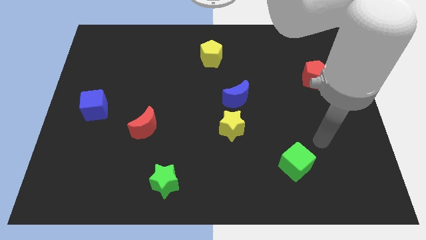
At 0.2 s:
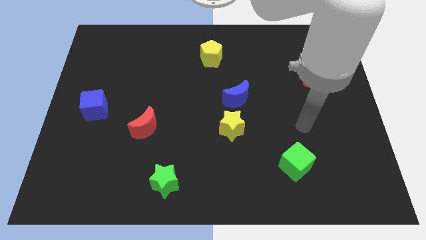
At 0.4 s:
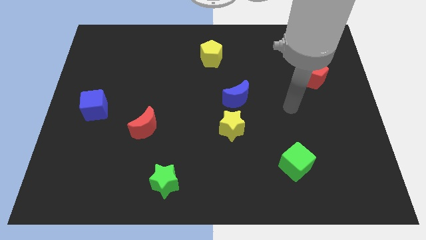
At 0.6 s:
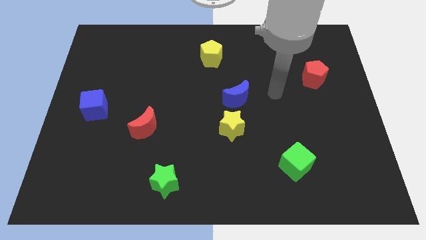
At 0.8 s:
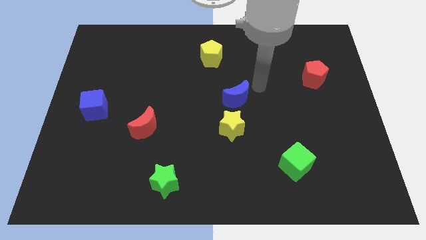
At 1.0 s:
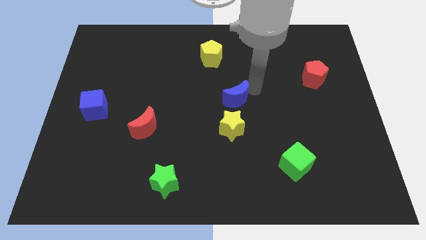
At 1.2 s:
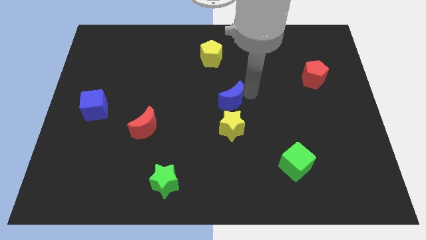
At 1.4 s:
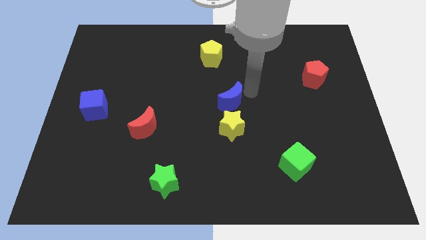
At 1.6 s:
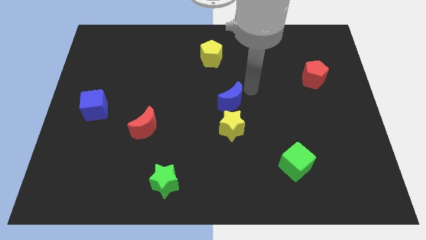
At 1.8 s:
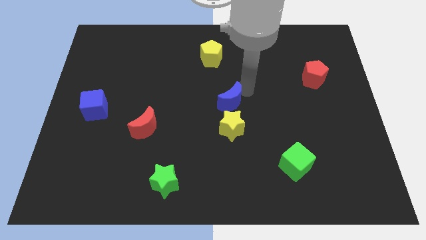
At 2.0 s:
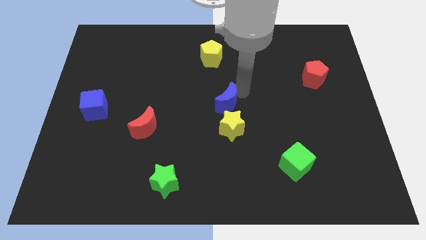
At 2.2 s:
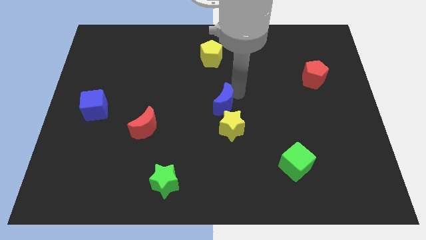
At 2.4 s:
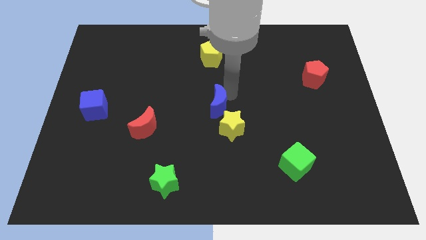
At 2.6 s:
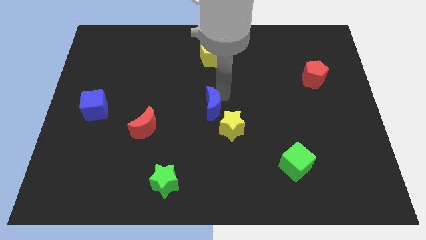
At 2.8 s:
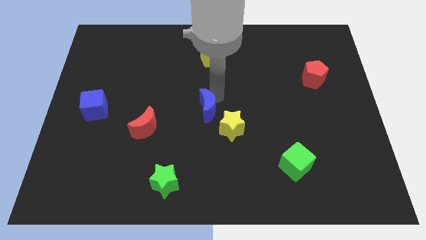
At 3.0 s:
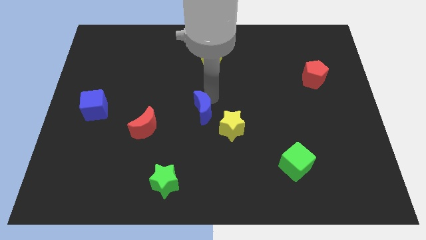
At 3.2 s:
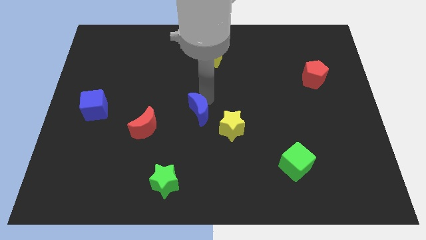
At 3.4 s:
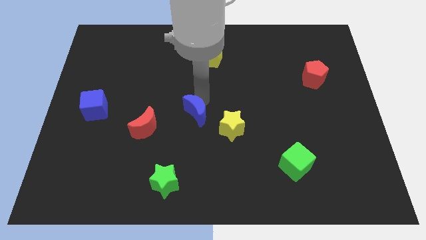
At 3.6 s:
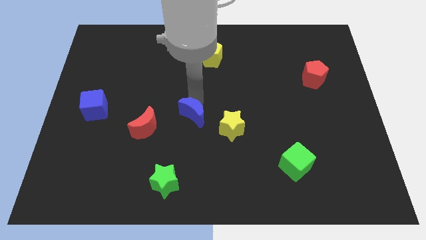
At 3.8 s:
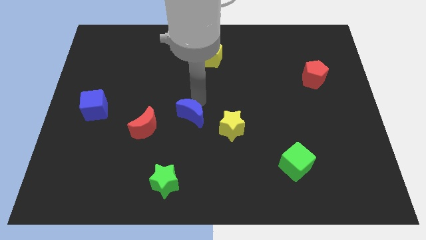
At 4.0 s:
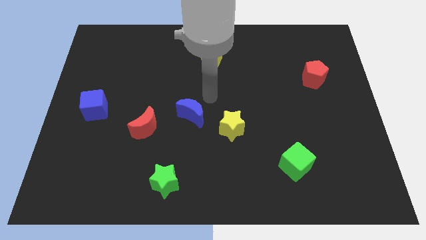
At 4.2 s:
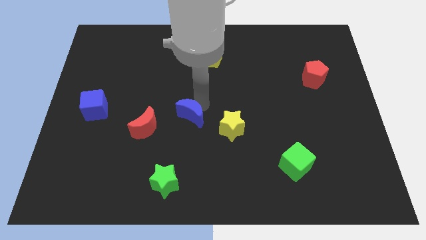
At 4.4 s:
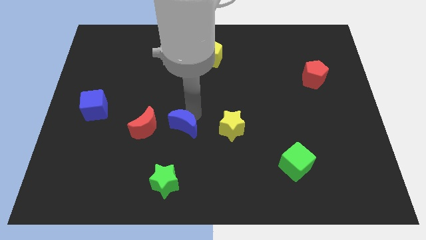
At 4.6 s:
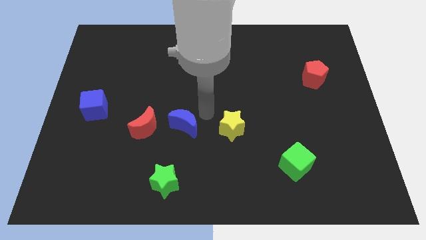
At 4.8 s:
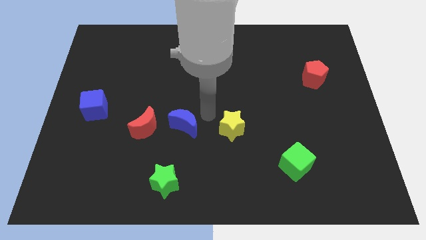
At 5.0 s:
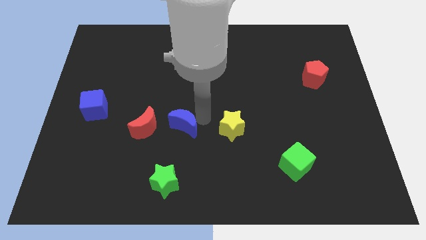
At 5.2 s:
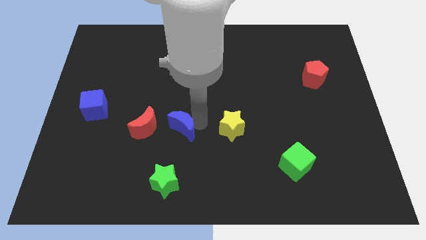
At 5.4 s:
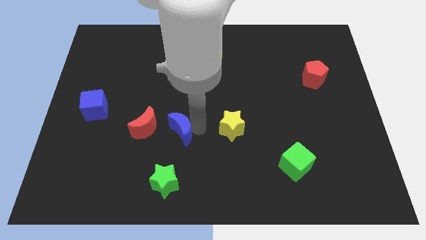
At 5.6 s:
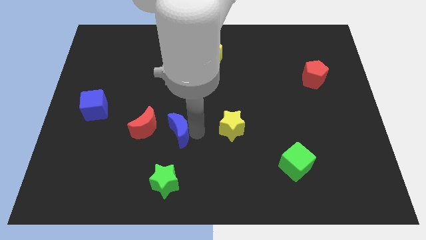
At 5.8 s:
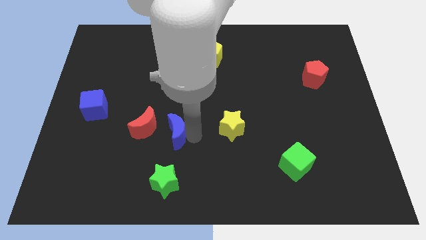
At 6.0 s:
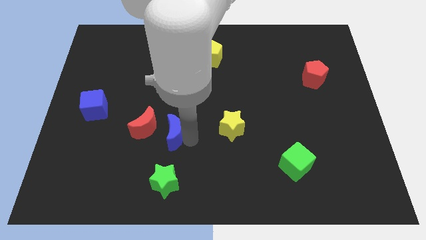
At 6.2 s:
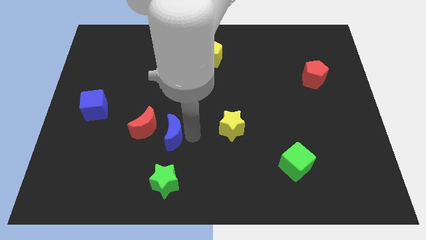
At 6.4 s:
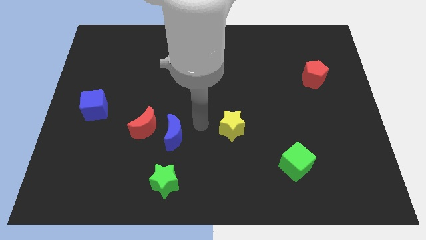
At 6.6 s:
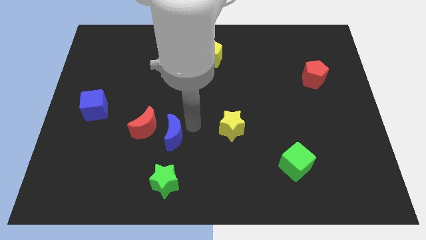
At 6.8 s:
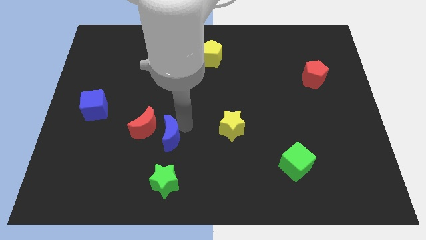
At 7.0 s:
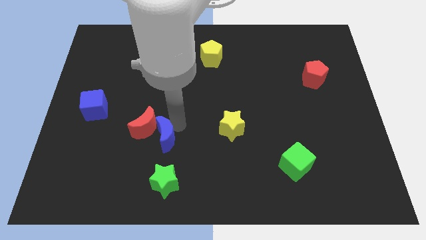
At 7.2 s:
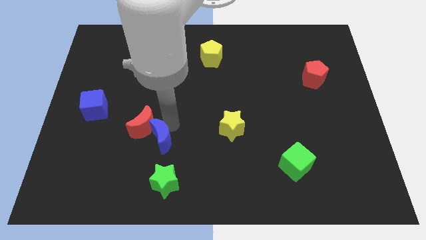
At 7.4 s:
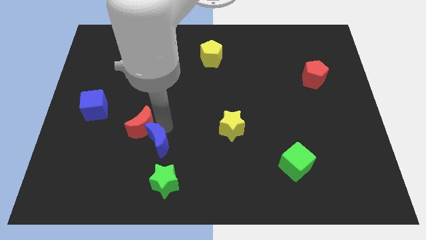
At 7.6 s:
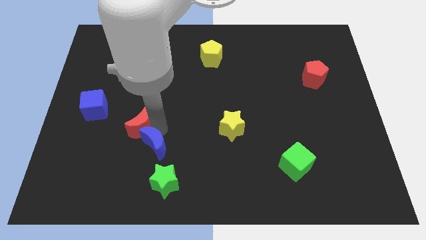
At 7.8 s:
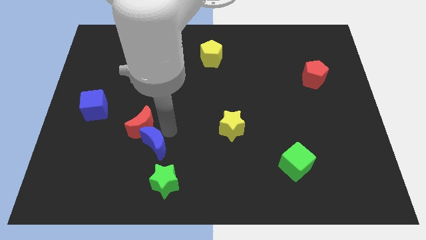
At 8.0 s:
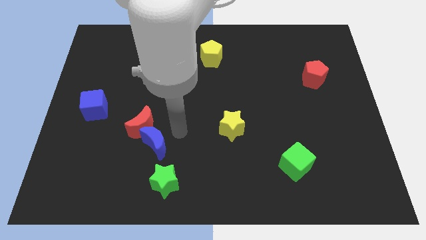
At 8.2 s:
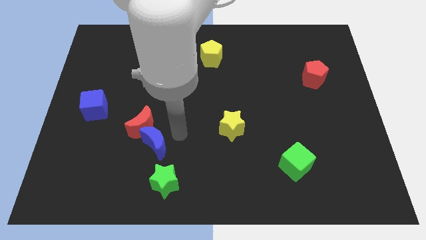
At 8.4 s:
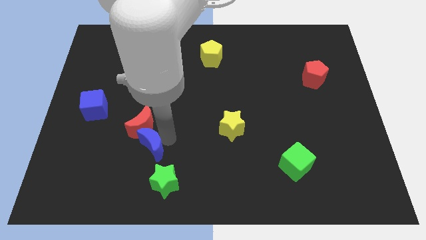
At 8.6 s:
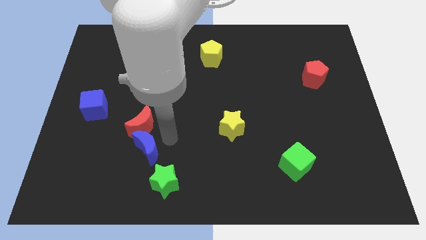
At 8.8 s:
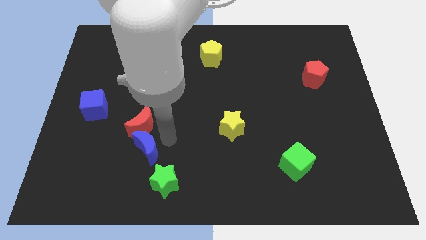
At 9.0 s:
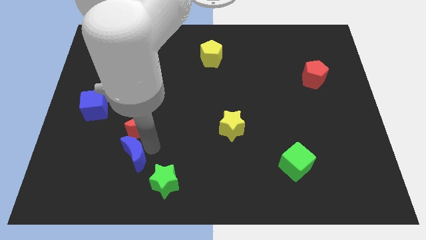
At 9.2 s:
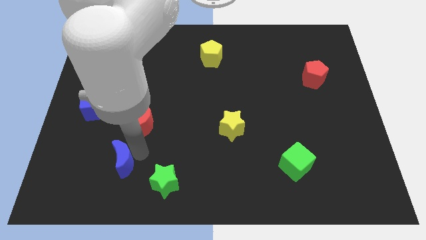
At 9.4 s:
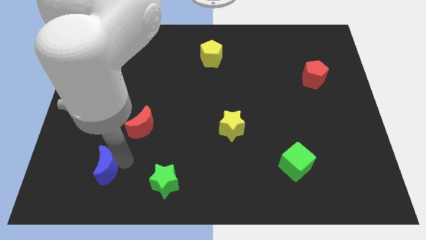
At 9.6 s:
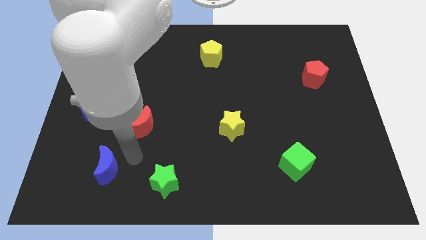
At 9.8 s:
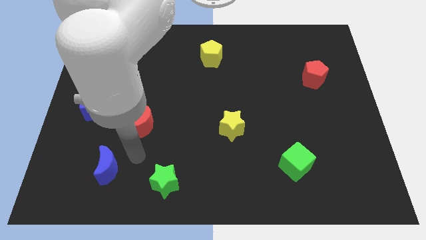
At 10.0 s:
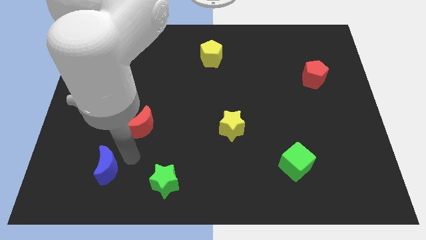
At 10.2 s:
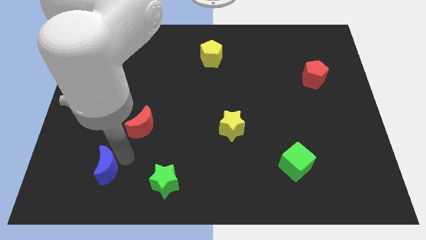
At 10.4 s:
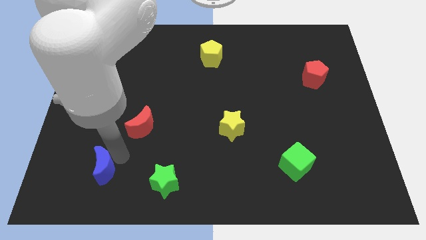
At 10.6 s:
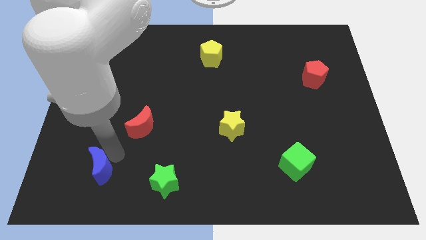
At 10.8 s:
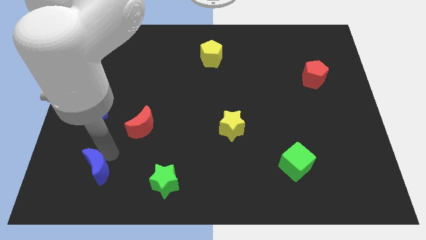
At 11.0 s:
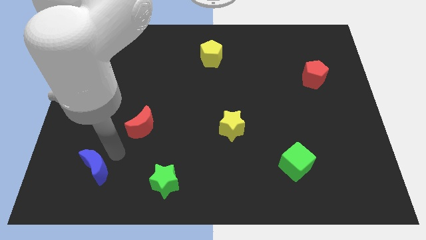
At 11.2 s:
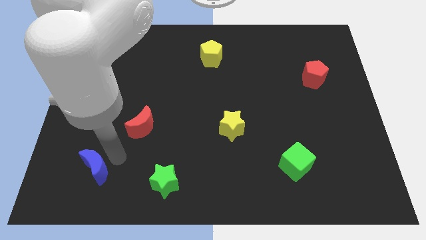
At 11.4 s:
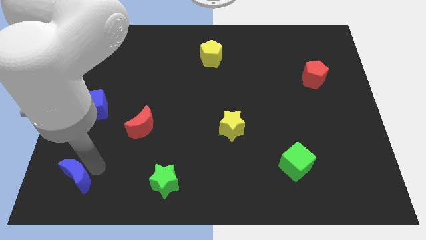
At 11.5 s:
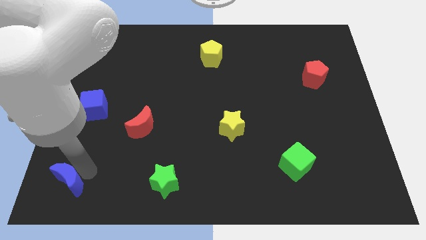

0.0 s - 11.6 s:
slide the blue moon to the lower left corner

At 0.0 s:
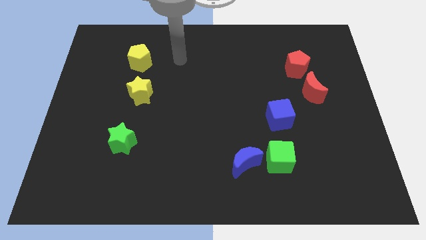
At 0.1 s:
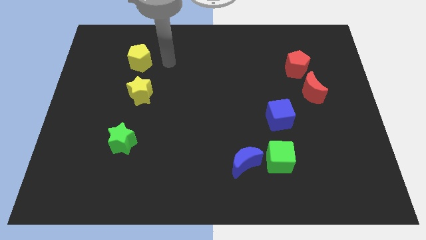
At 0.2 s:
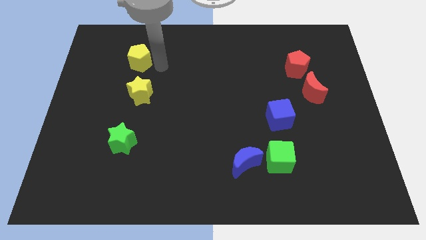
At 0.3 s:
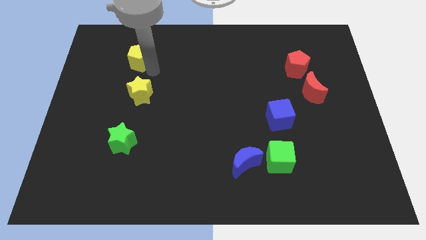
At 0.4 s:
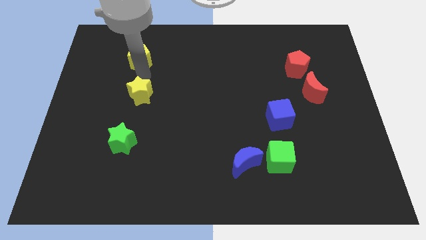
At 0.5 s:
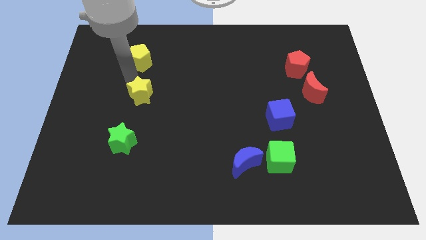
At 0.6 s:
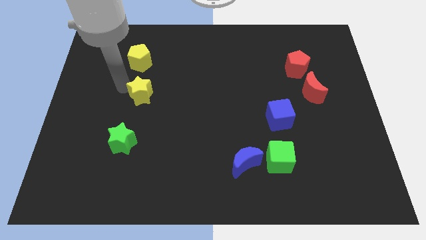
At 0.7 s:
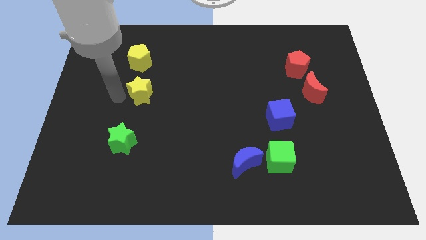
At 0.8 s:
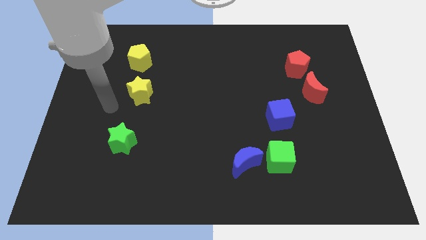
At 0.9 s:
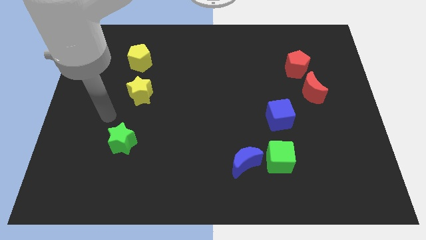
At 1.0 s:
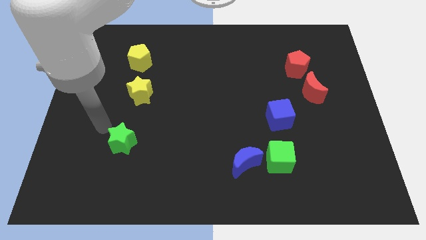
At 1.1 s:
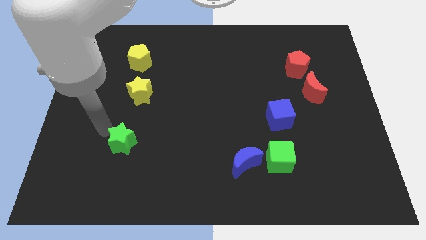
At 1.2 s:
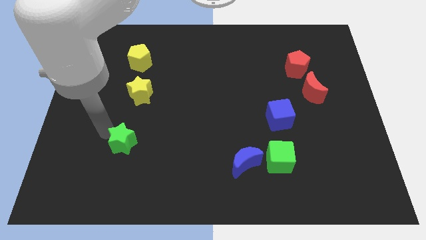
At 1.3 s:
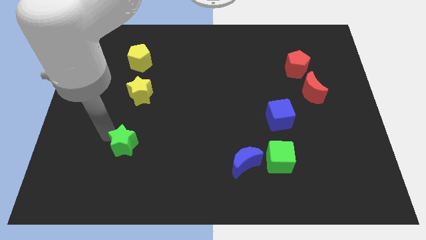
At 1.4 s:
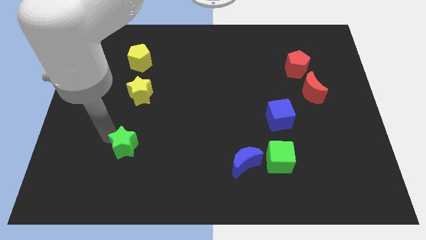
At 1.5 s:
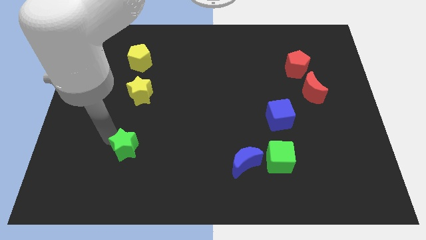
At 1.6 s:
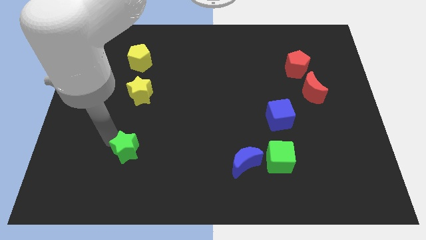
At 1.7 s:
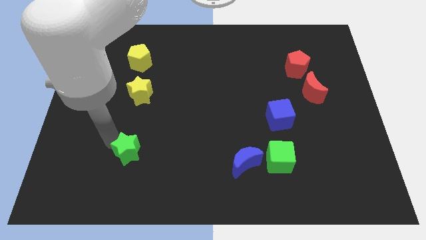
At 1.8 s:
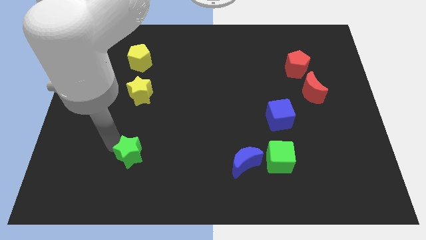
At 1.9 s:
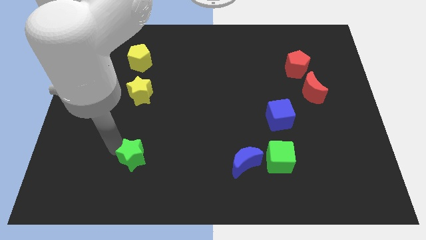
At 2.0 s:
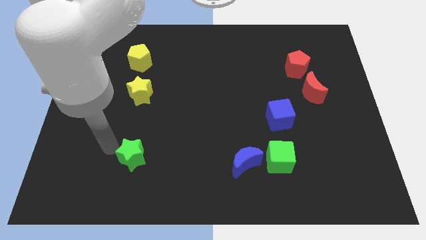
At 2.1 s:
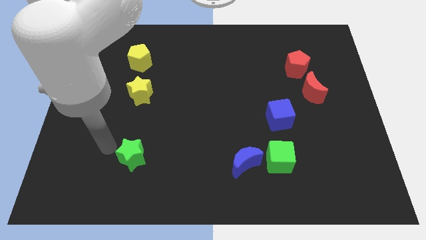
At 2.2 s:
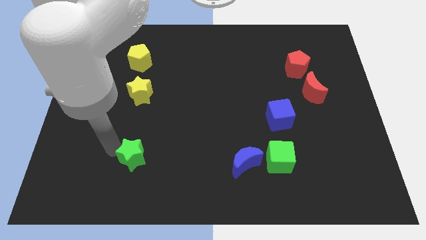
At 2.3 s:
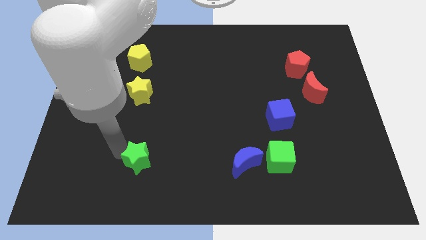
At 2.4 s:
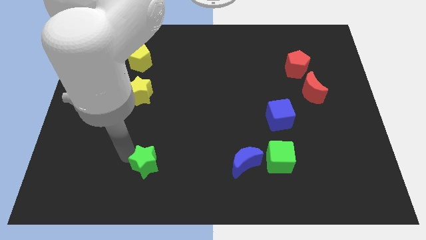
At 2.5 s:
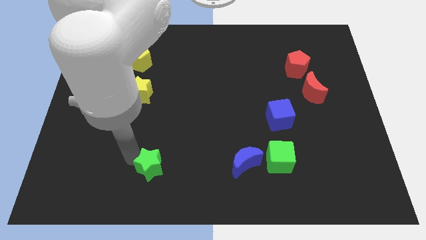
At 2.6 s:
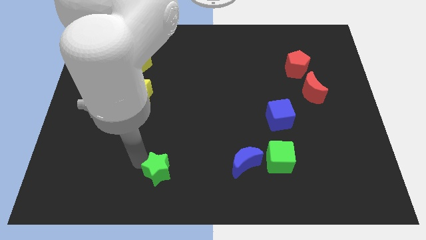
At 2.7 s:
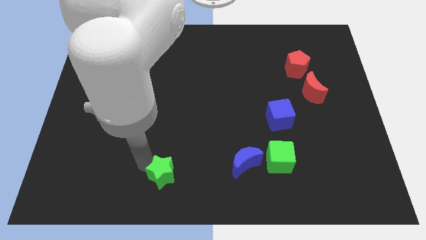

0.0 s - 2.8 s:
slide the green star to the bottom side
